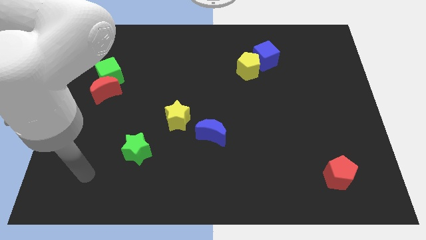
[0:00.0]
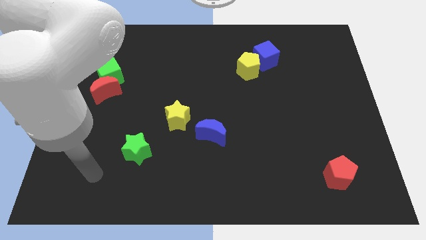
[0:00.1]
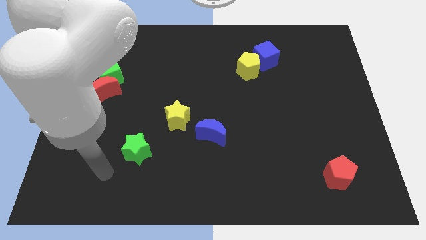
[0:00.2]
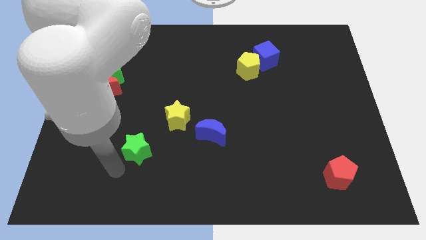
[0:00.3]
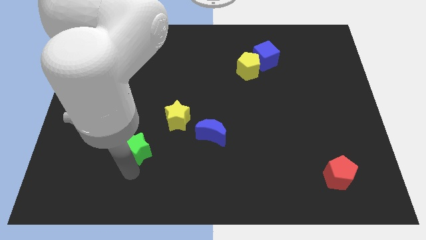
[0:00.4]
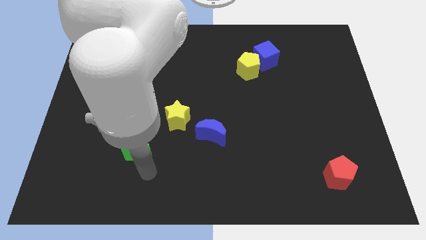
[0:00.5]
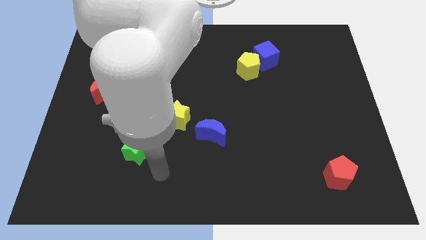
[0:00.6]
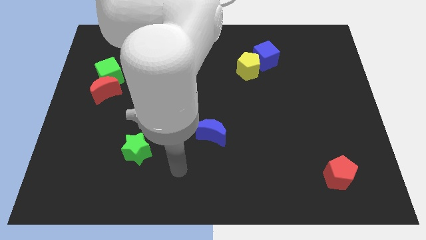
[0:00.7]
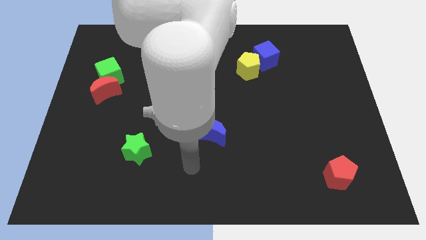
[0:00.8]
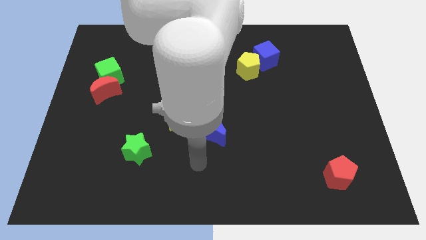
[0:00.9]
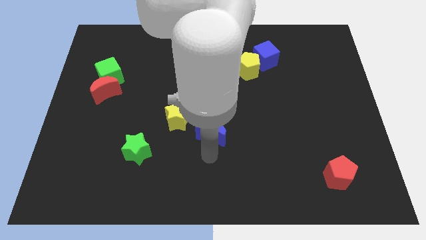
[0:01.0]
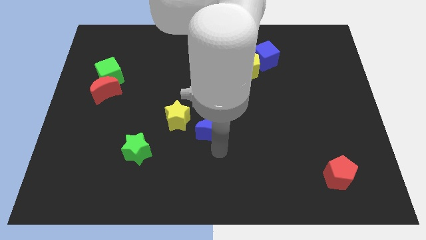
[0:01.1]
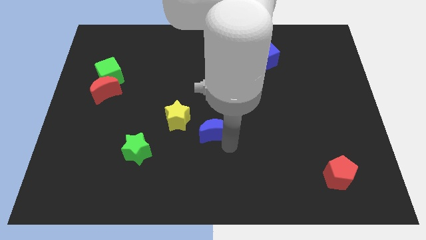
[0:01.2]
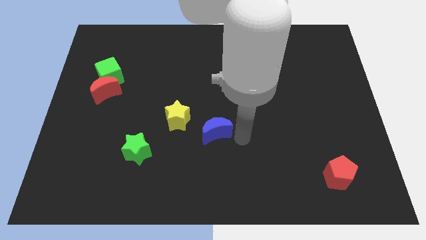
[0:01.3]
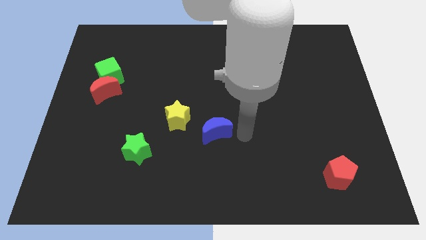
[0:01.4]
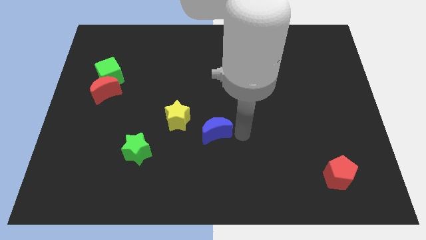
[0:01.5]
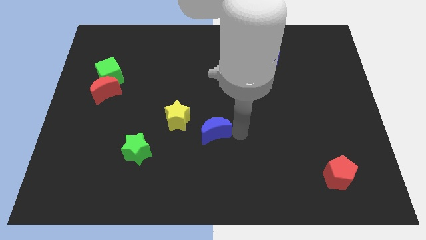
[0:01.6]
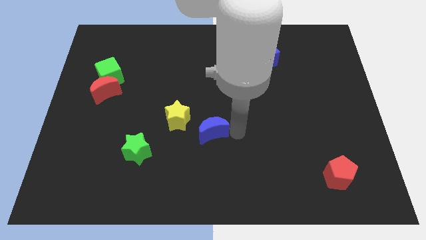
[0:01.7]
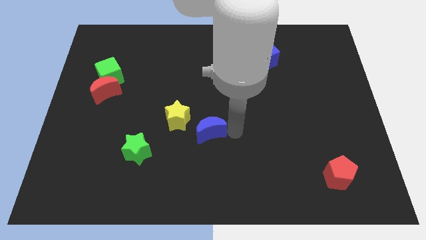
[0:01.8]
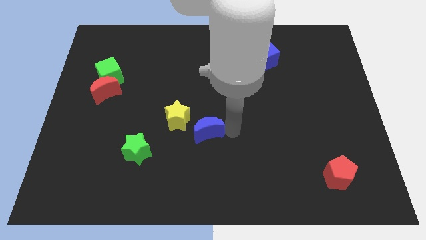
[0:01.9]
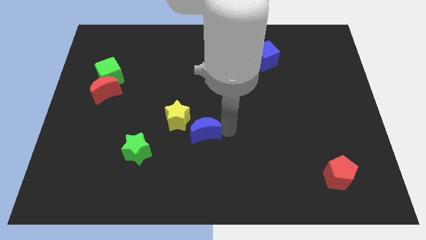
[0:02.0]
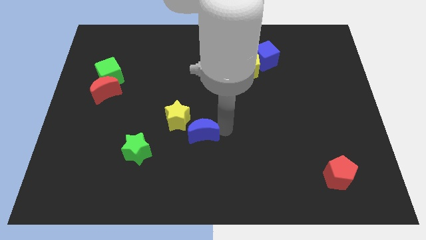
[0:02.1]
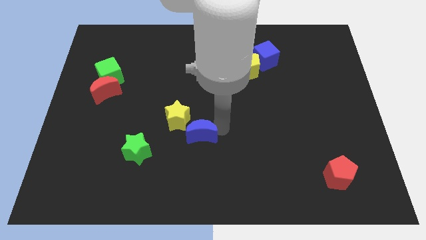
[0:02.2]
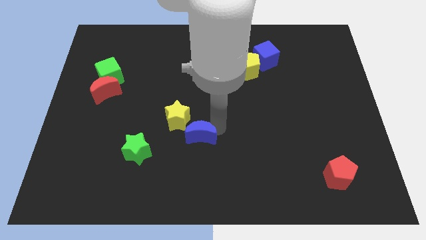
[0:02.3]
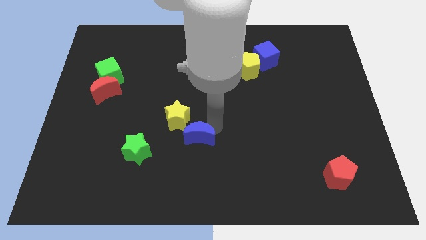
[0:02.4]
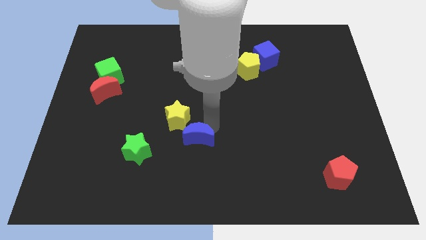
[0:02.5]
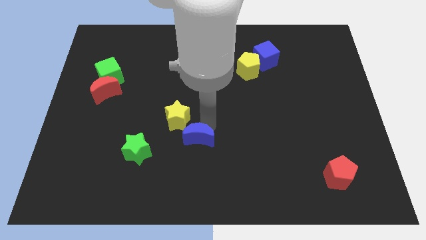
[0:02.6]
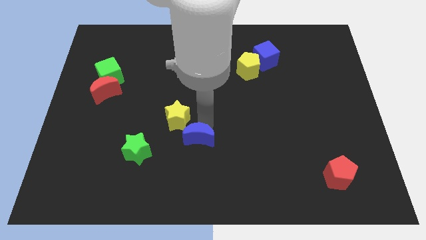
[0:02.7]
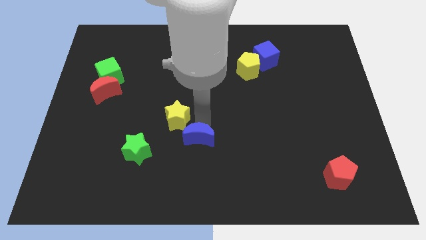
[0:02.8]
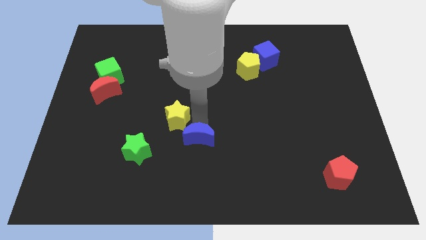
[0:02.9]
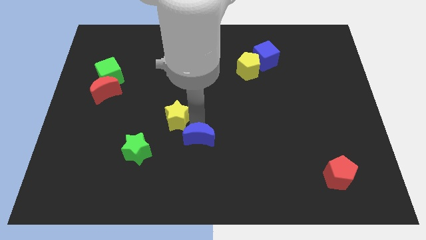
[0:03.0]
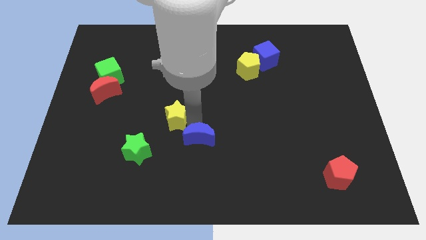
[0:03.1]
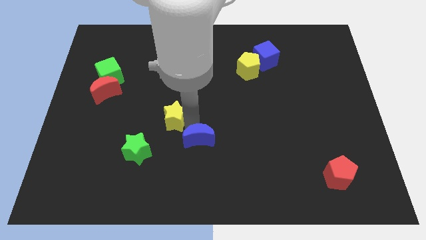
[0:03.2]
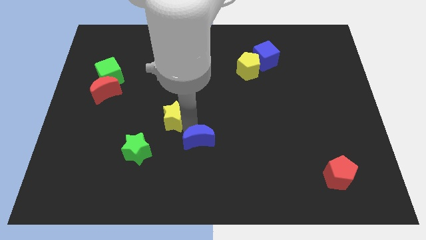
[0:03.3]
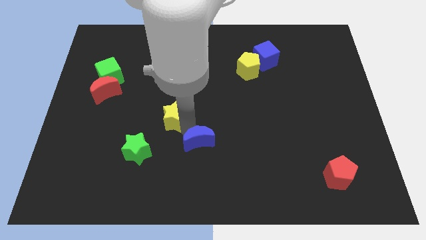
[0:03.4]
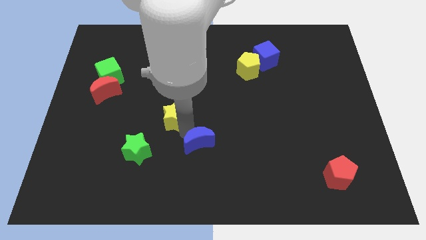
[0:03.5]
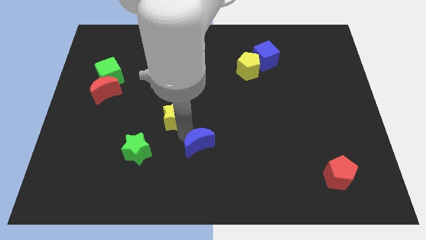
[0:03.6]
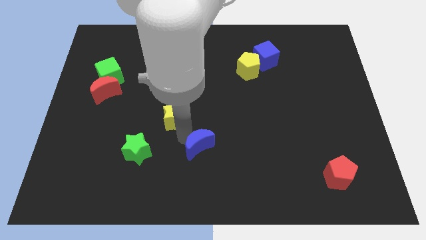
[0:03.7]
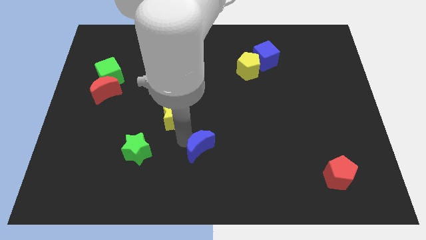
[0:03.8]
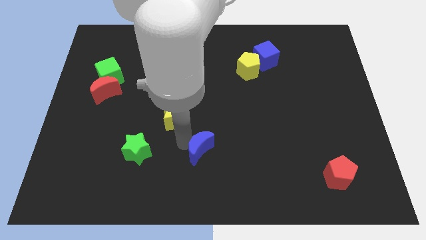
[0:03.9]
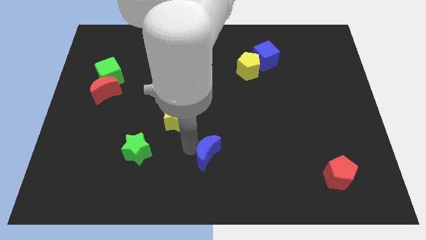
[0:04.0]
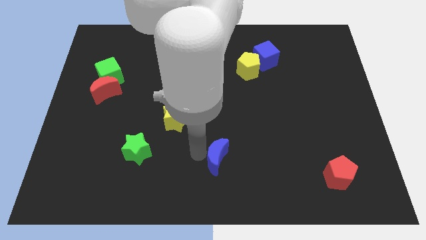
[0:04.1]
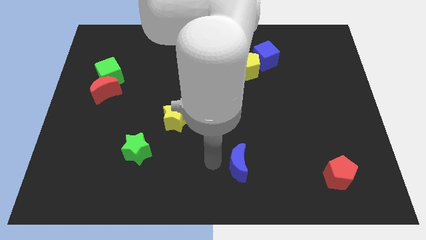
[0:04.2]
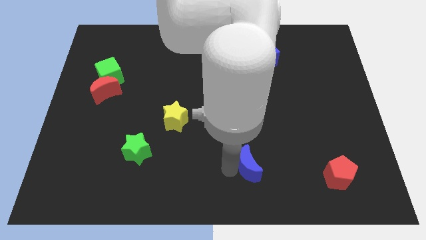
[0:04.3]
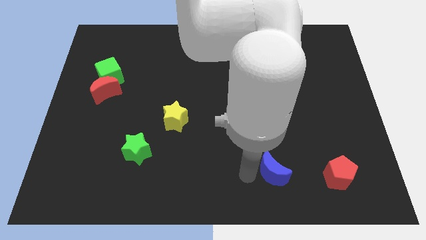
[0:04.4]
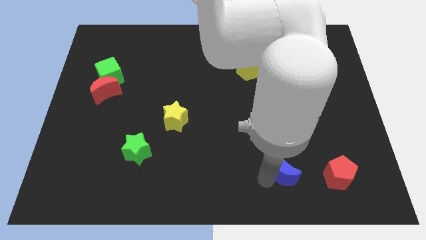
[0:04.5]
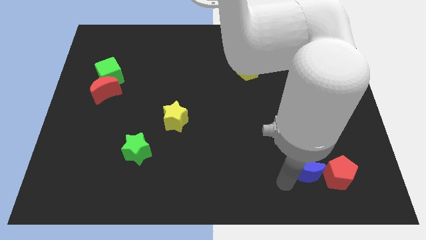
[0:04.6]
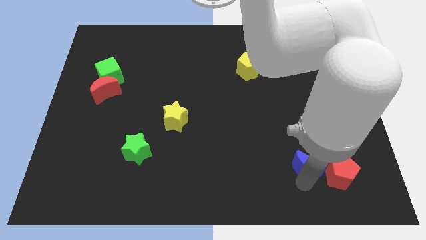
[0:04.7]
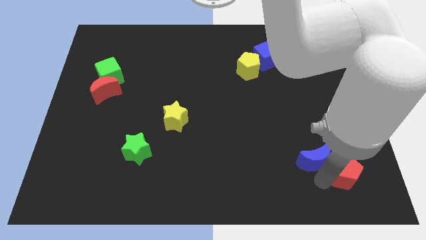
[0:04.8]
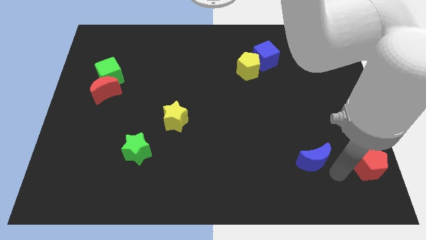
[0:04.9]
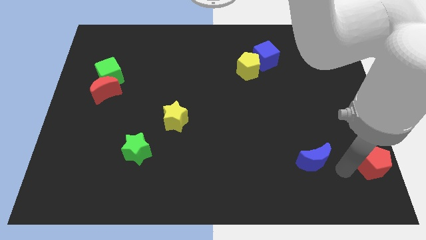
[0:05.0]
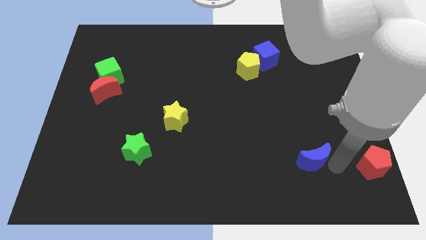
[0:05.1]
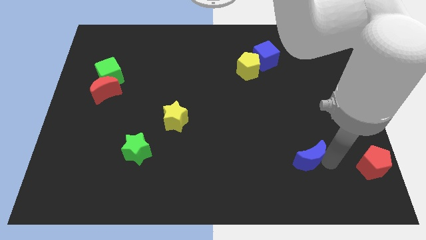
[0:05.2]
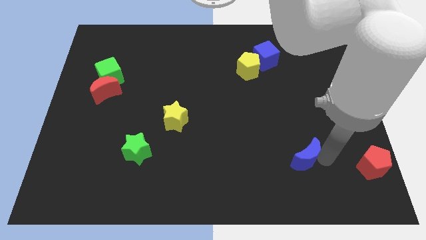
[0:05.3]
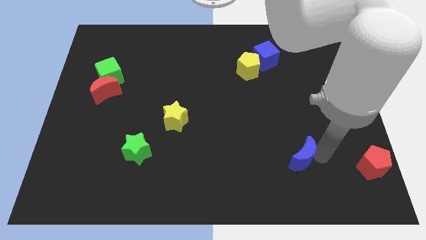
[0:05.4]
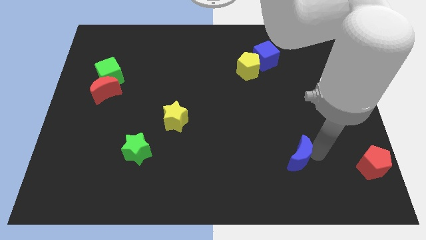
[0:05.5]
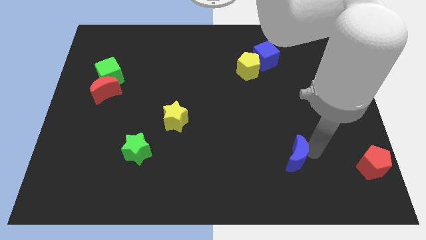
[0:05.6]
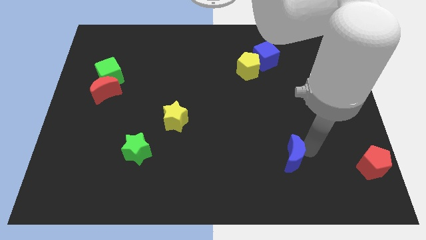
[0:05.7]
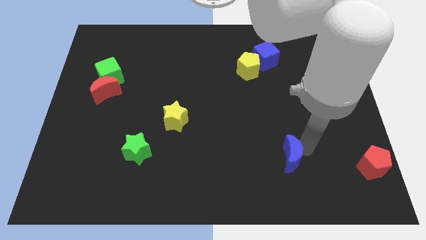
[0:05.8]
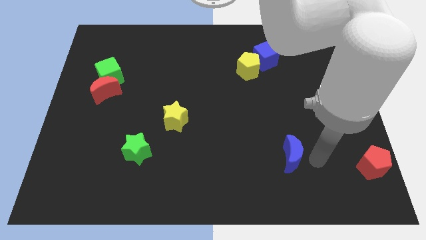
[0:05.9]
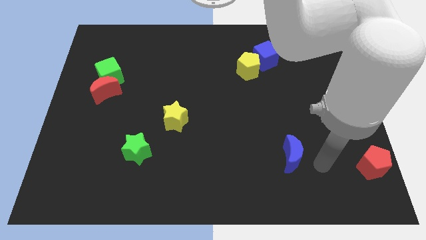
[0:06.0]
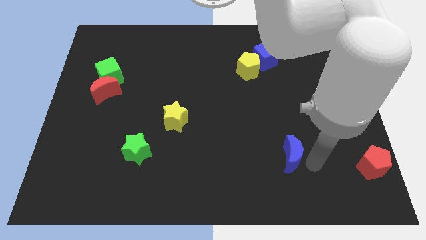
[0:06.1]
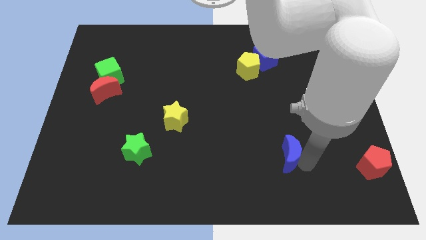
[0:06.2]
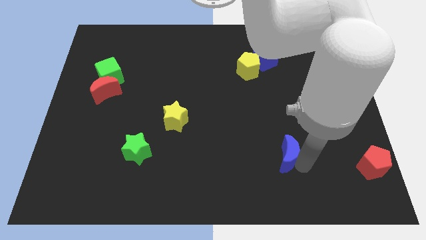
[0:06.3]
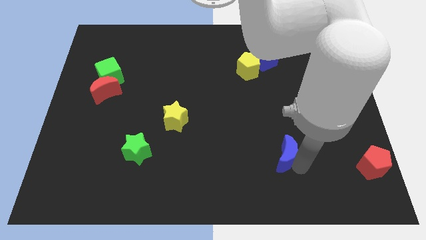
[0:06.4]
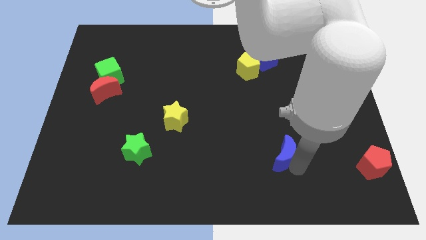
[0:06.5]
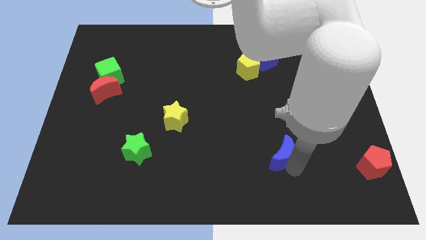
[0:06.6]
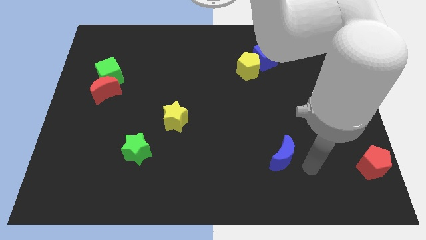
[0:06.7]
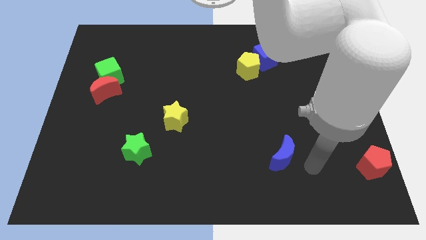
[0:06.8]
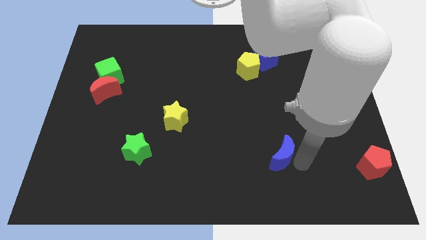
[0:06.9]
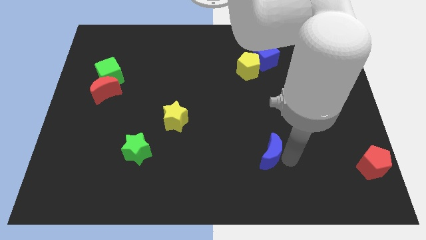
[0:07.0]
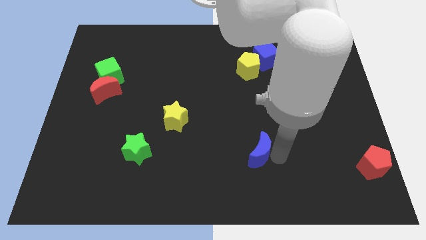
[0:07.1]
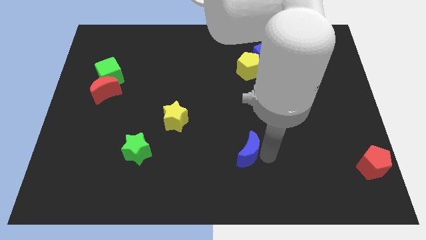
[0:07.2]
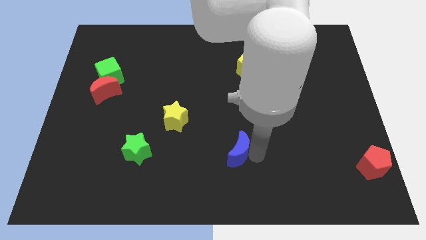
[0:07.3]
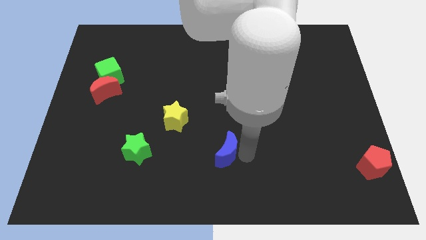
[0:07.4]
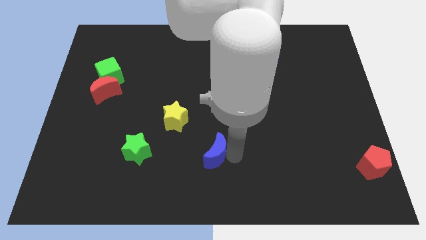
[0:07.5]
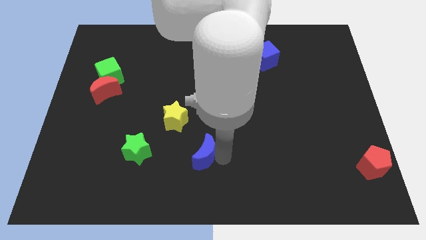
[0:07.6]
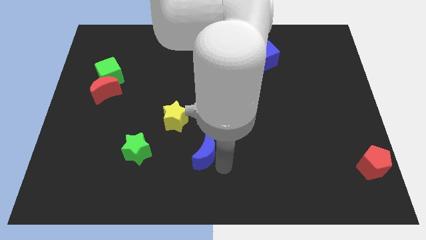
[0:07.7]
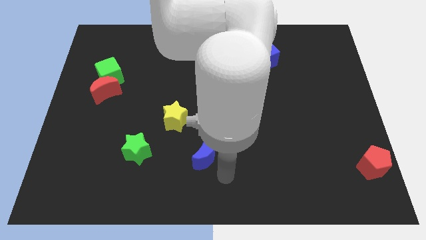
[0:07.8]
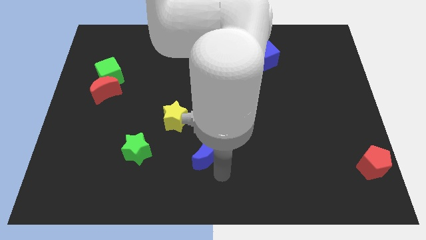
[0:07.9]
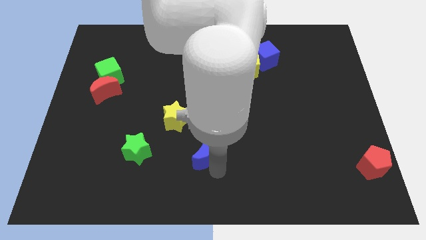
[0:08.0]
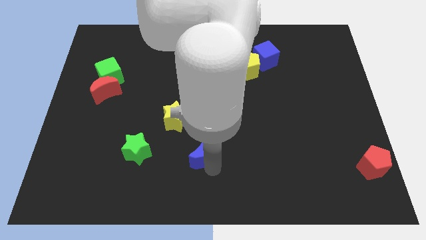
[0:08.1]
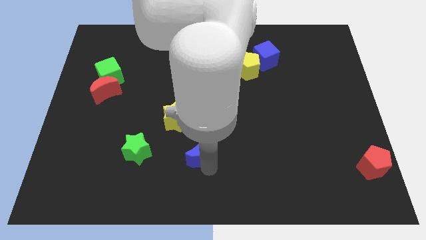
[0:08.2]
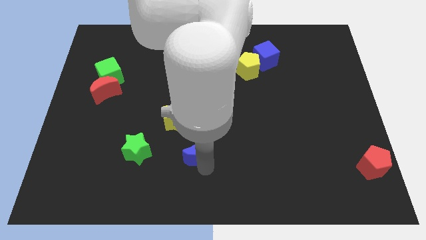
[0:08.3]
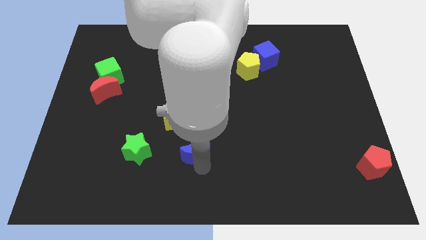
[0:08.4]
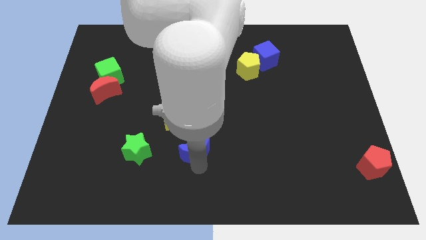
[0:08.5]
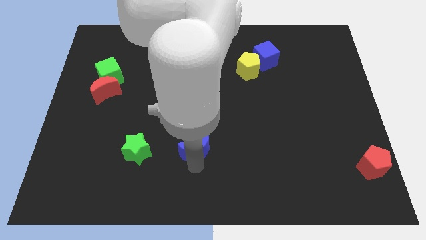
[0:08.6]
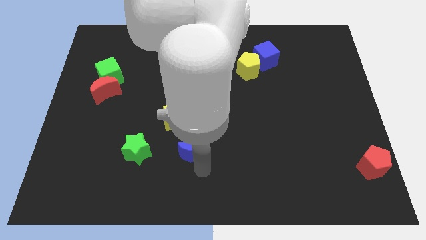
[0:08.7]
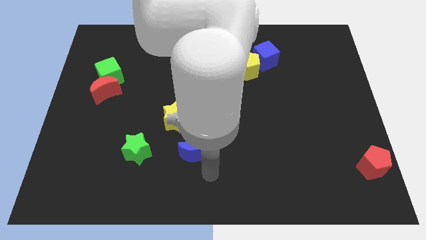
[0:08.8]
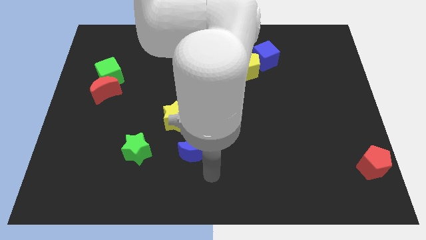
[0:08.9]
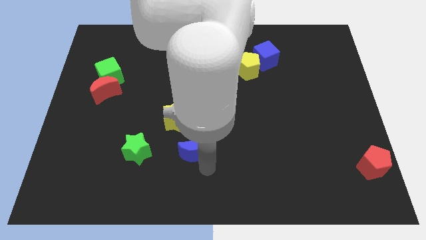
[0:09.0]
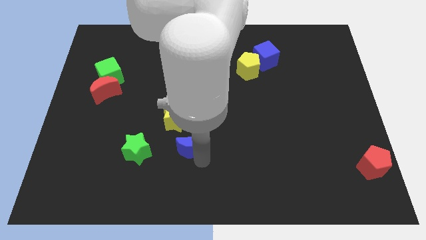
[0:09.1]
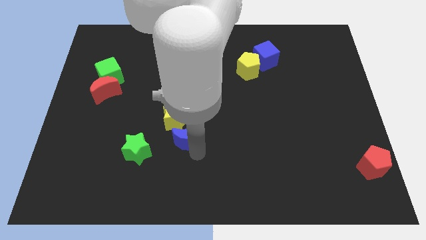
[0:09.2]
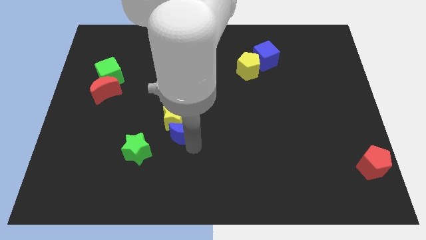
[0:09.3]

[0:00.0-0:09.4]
put the blue moon towards the yellow star
